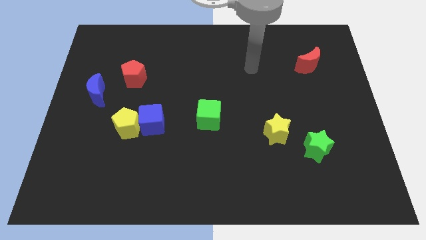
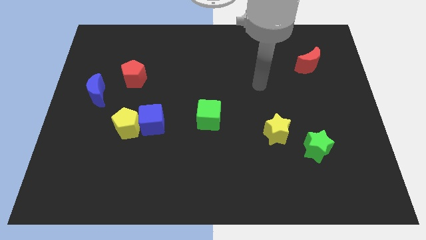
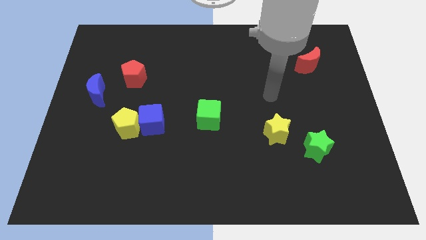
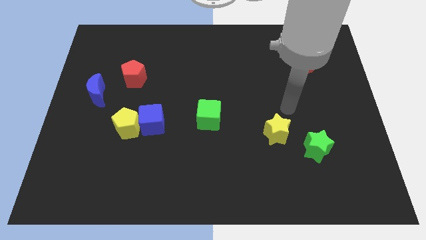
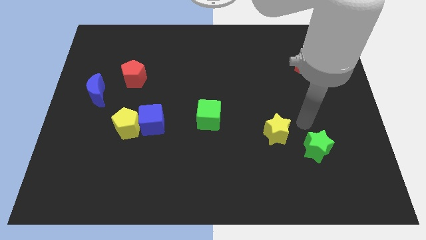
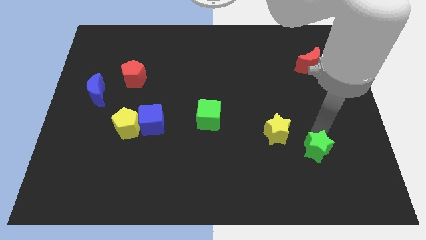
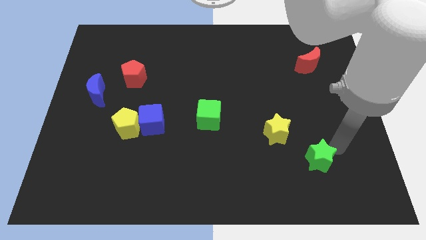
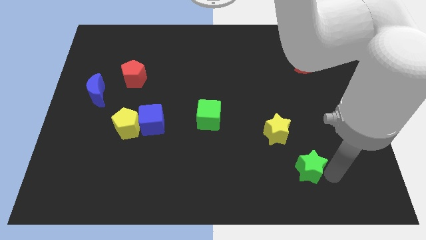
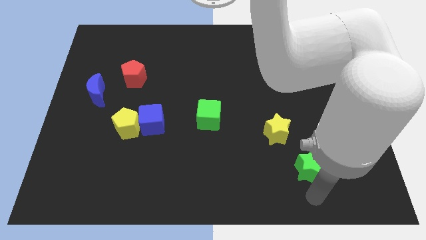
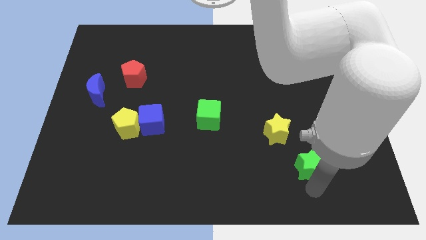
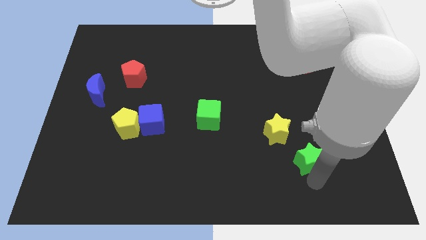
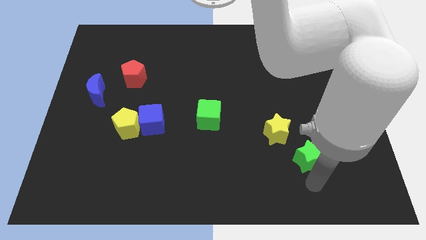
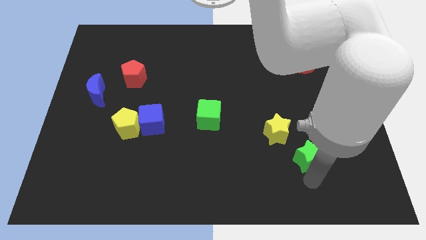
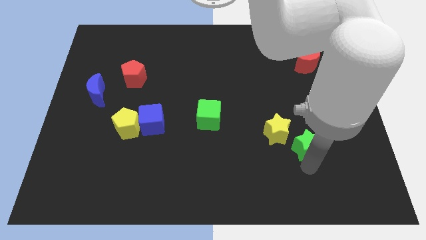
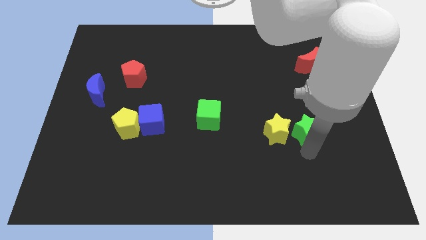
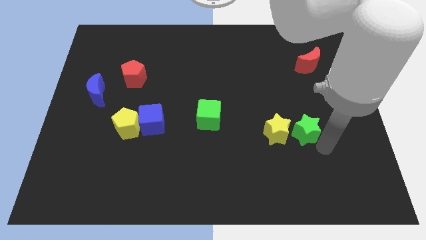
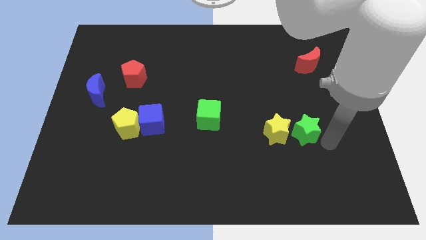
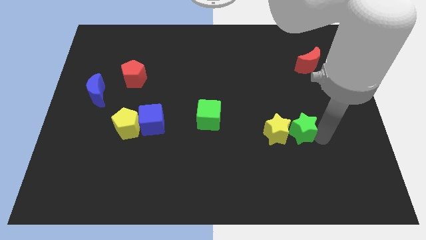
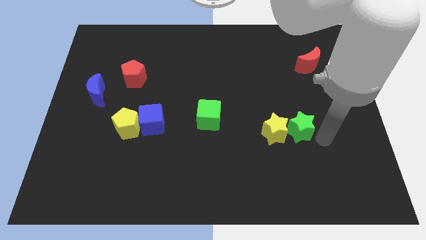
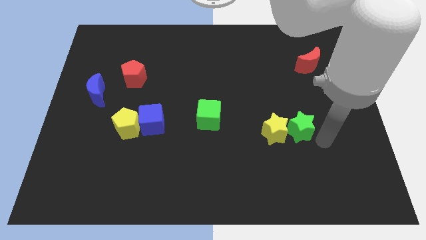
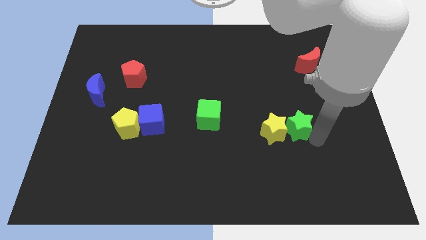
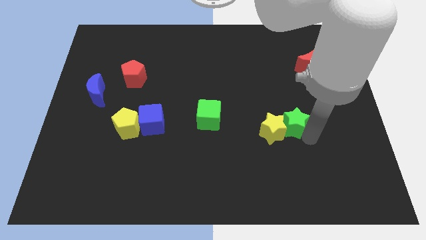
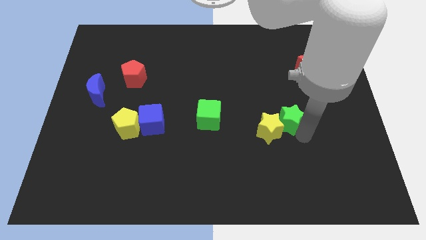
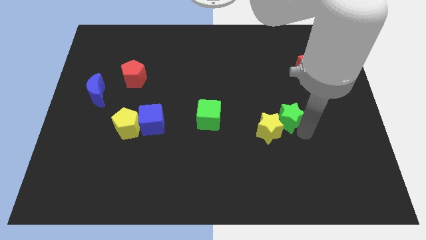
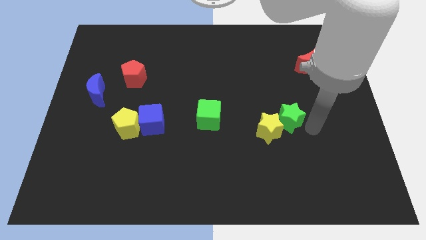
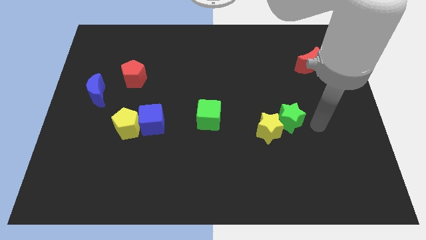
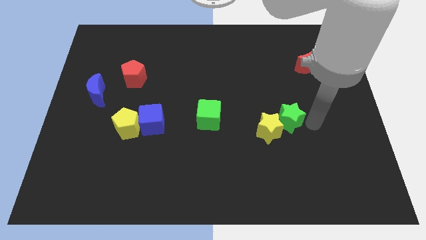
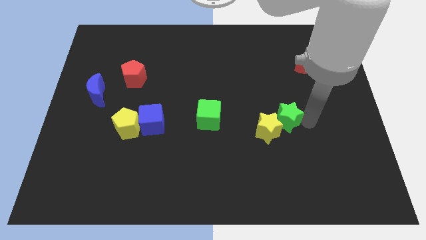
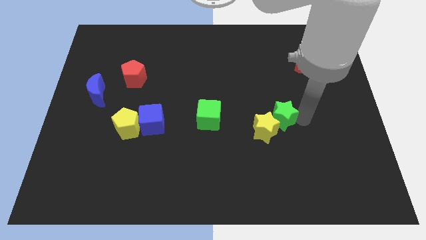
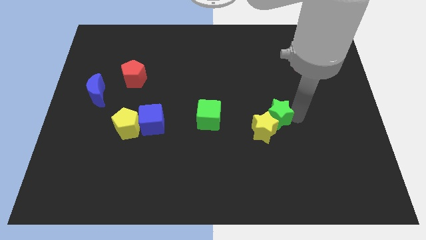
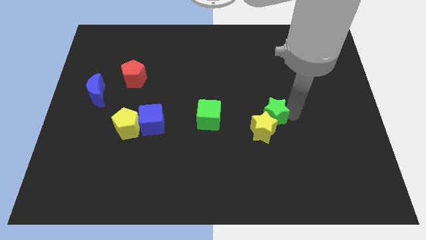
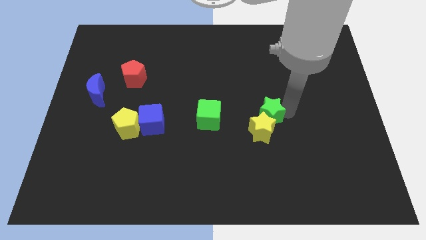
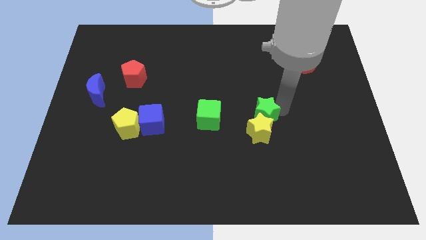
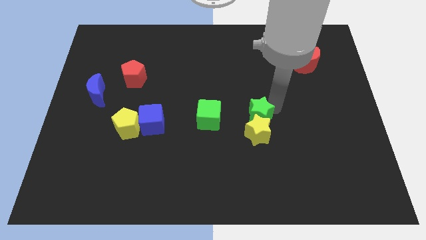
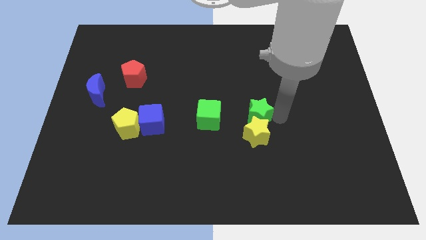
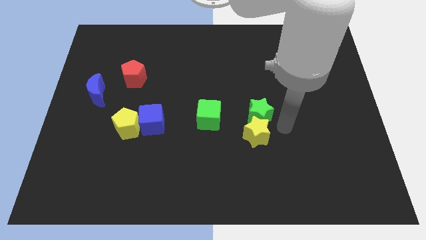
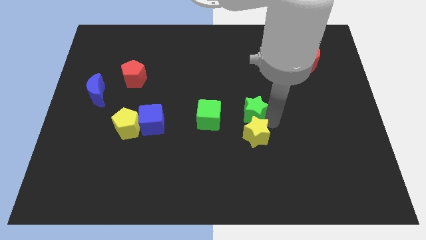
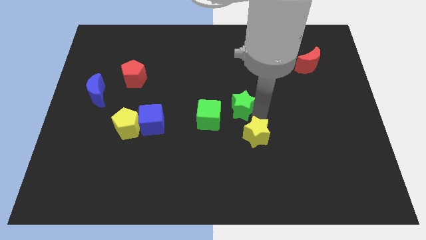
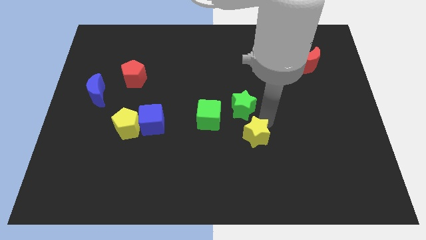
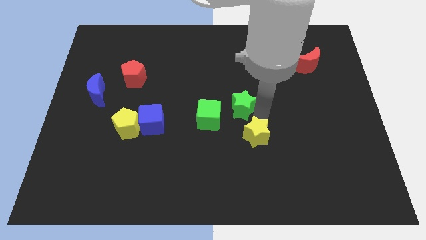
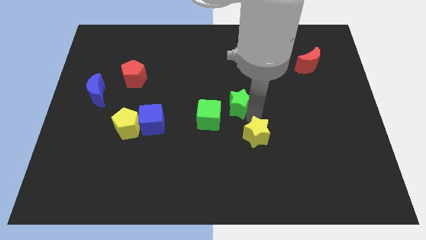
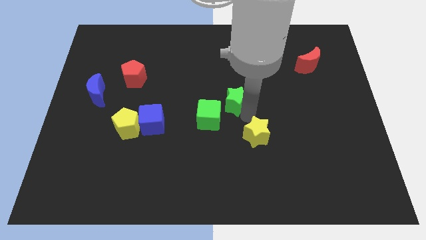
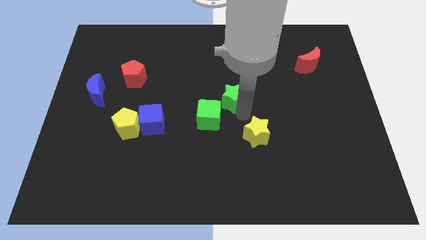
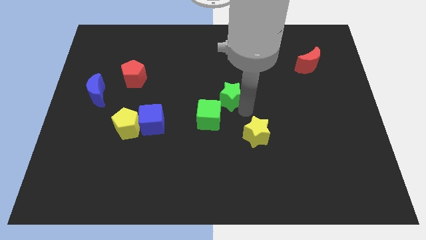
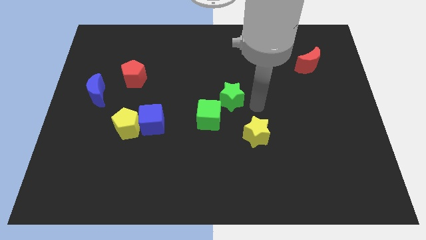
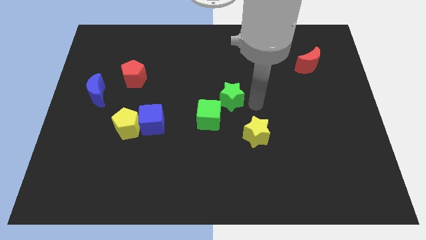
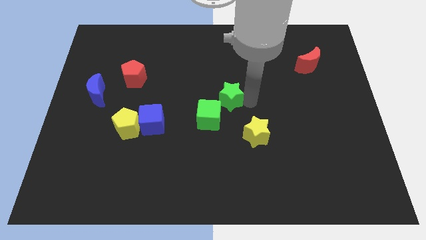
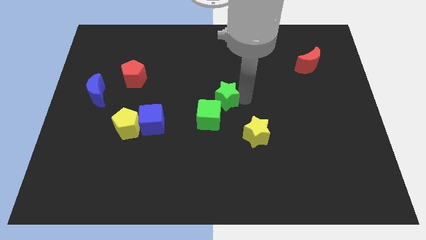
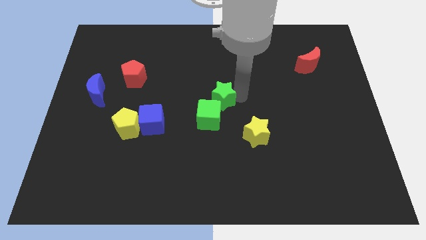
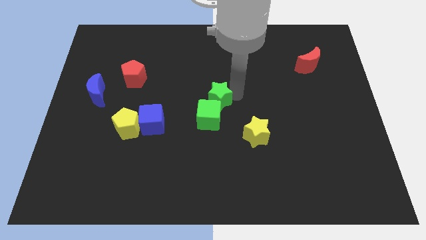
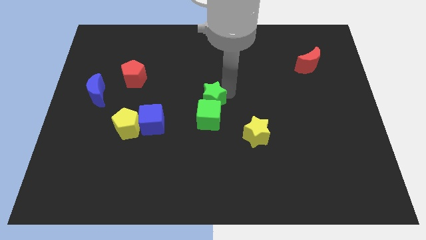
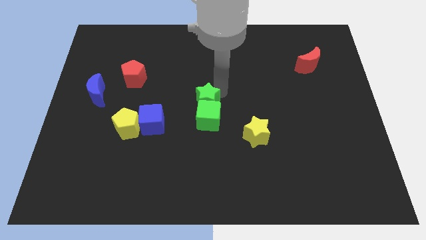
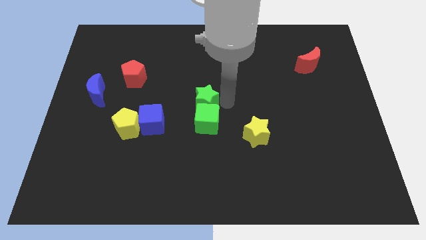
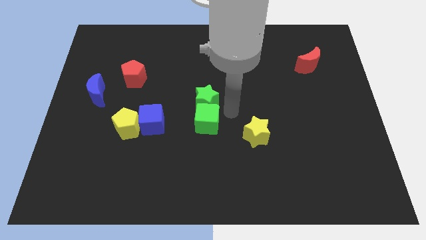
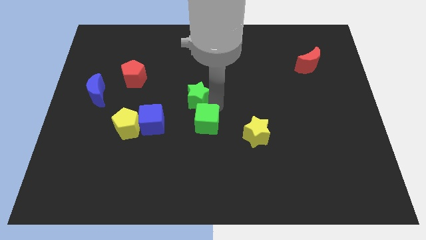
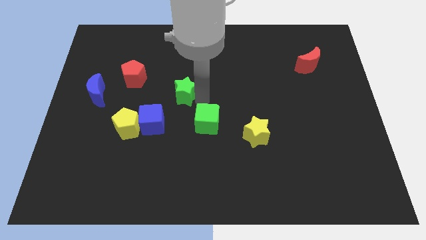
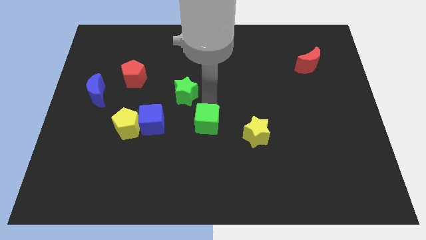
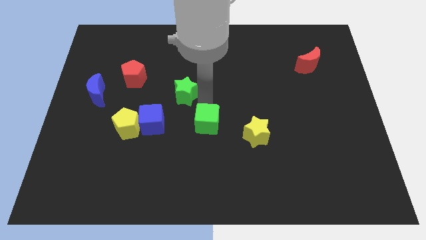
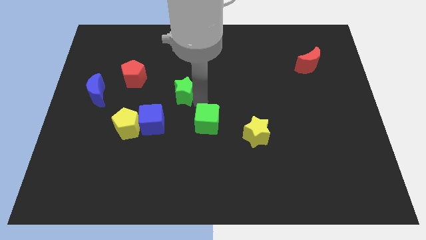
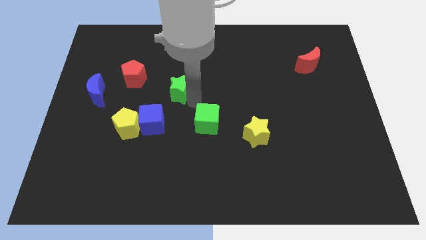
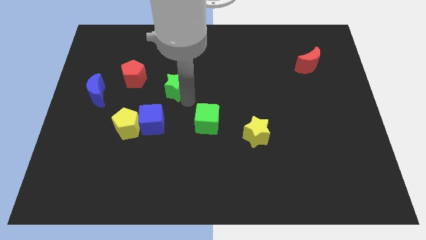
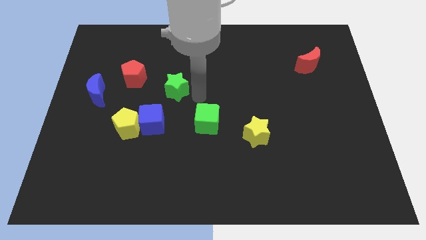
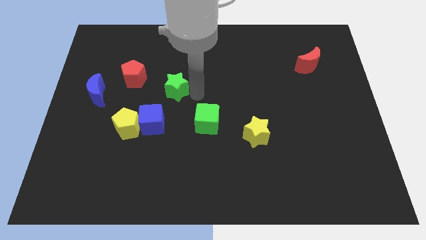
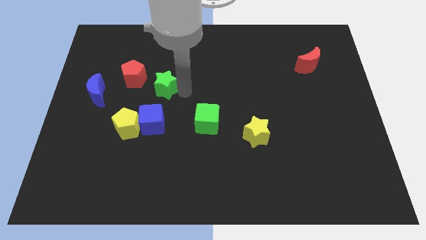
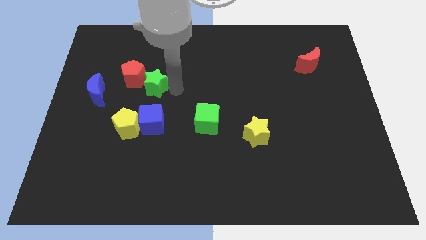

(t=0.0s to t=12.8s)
move the green star next to the red pentagon
